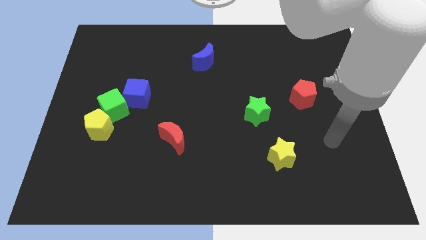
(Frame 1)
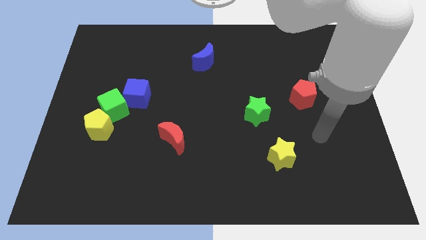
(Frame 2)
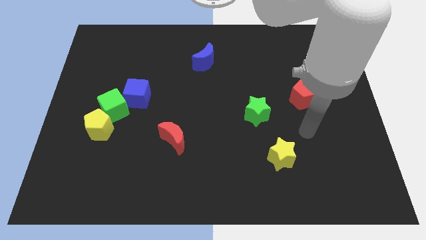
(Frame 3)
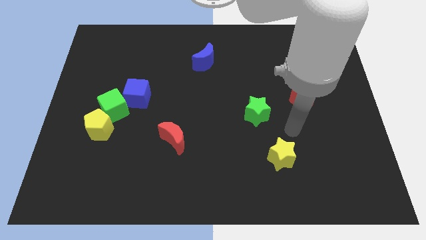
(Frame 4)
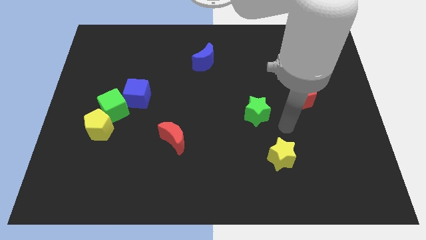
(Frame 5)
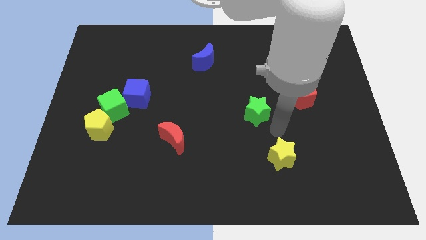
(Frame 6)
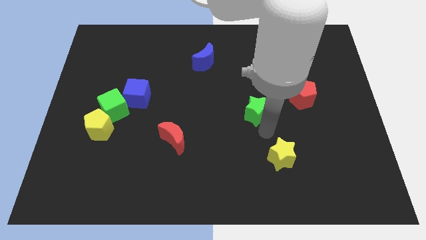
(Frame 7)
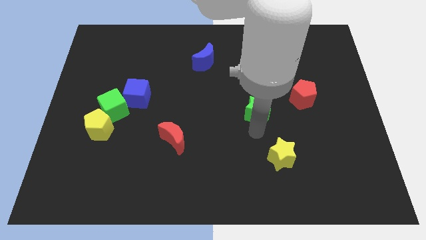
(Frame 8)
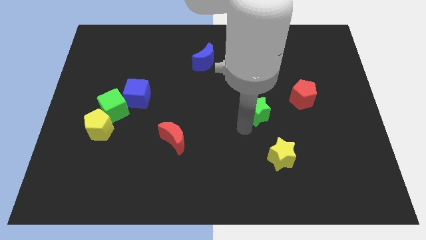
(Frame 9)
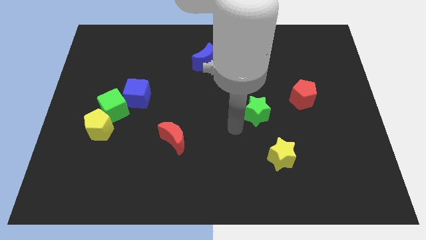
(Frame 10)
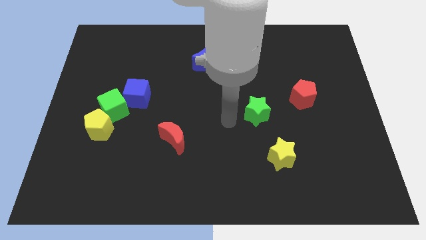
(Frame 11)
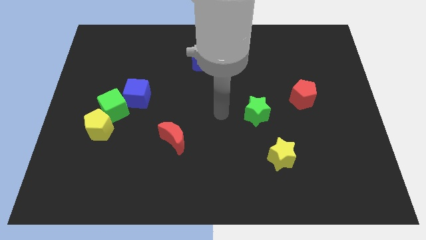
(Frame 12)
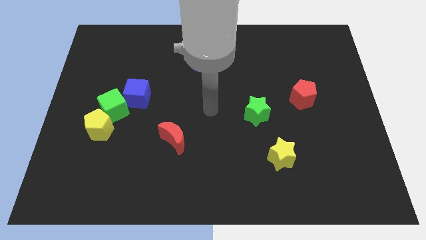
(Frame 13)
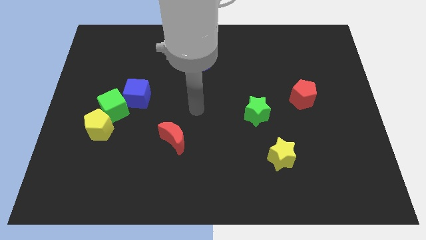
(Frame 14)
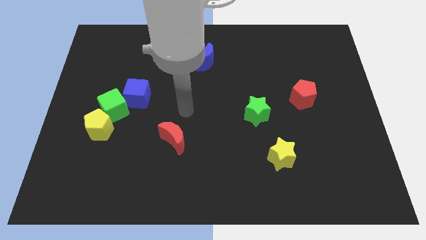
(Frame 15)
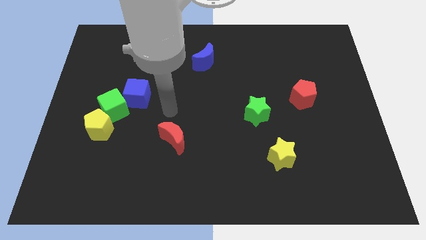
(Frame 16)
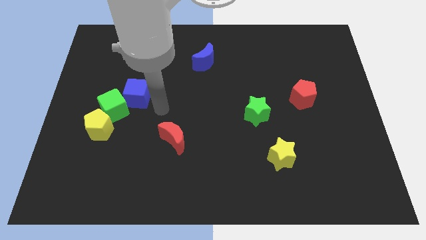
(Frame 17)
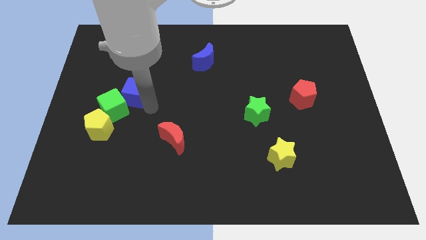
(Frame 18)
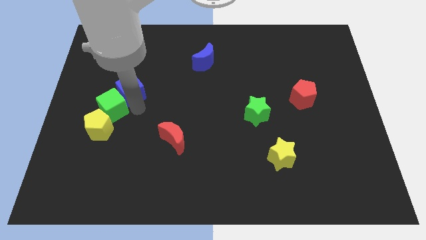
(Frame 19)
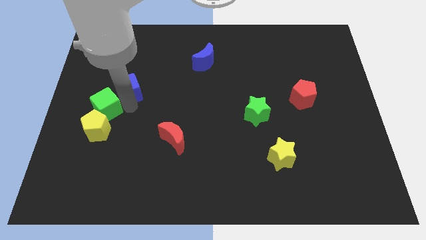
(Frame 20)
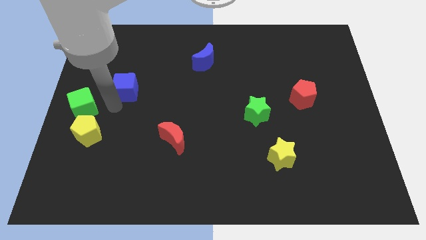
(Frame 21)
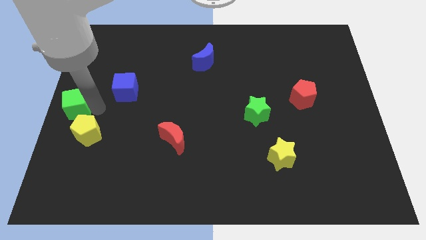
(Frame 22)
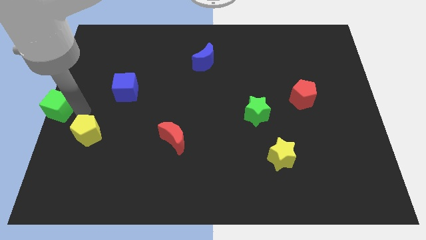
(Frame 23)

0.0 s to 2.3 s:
separate the yellow pentagon from the green cube

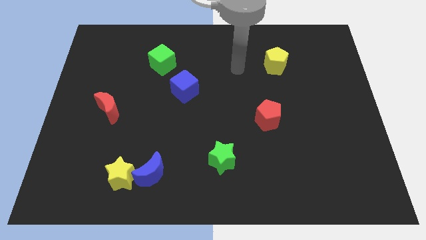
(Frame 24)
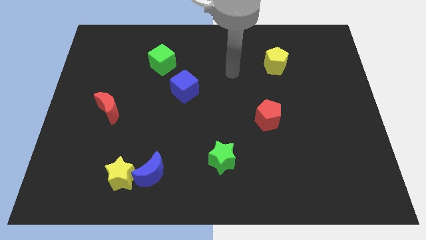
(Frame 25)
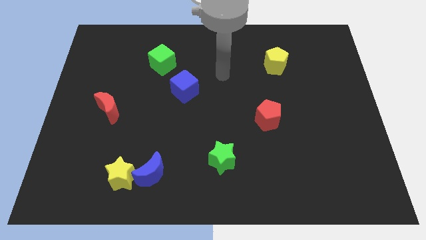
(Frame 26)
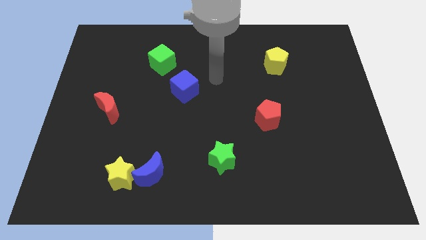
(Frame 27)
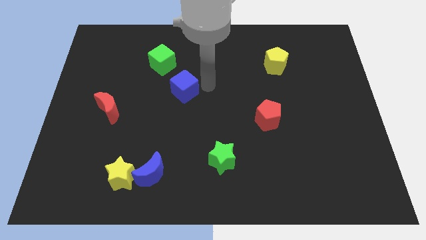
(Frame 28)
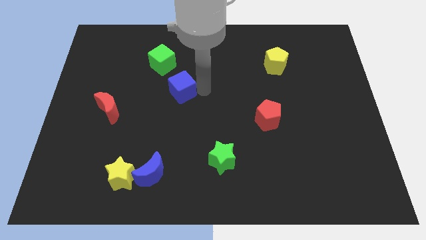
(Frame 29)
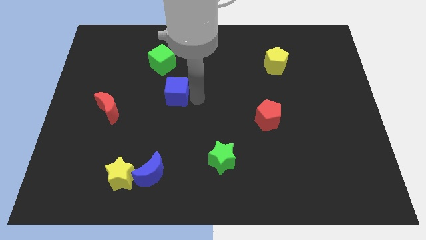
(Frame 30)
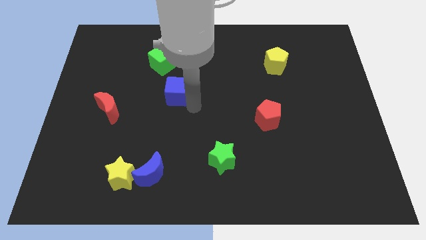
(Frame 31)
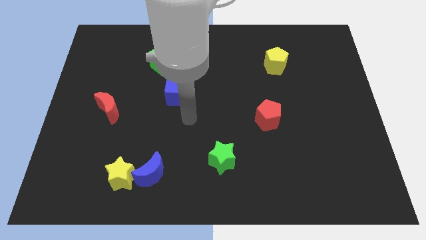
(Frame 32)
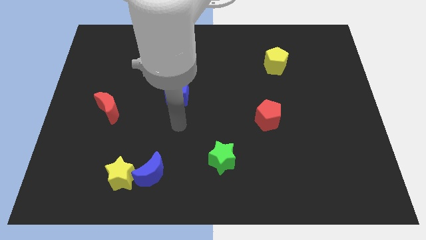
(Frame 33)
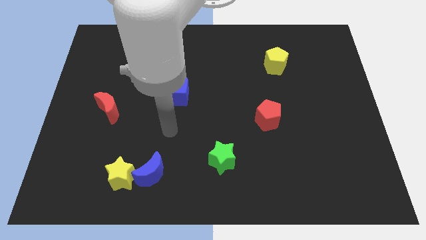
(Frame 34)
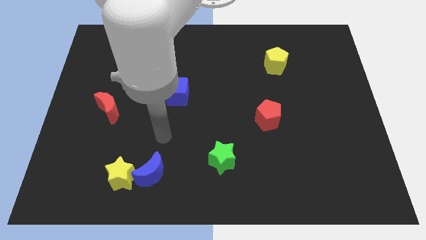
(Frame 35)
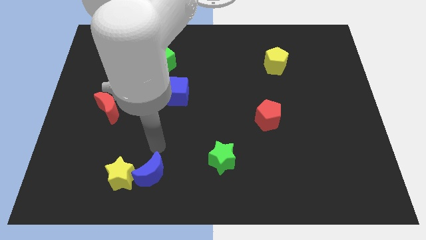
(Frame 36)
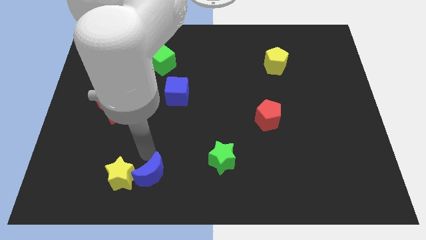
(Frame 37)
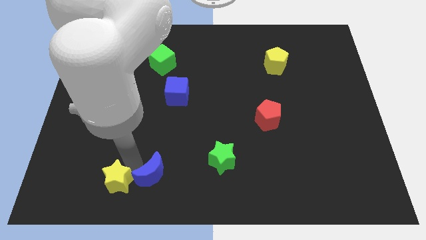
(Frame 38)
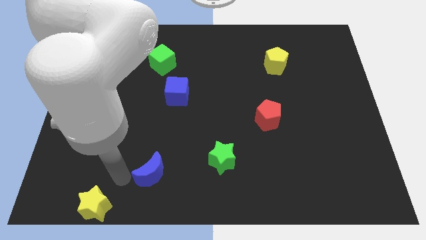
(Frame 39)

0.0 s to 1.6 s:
pull the blue moon apart from the yellow star

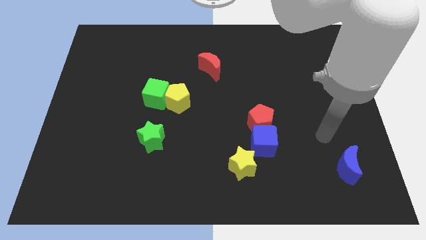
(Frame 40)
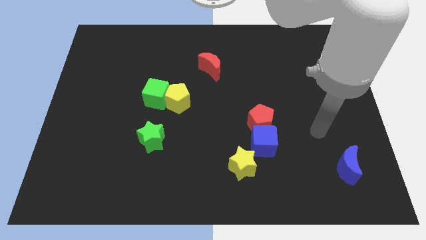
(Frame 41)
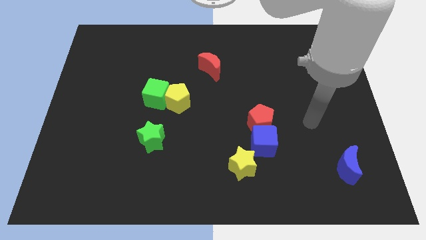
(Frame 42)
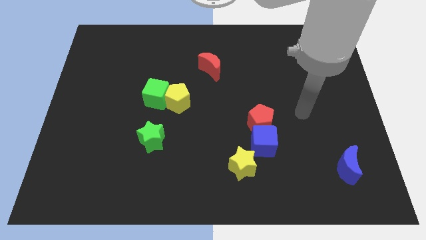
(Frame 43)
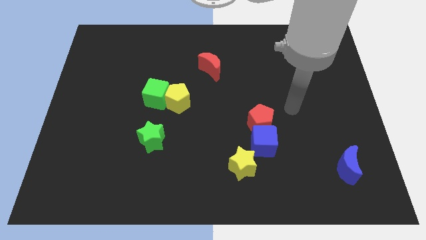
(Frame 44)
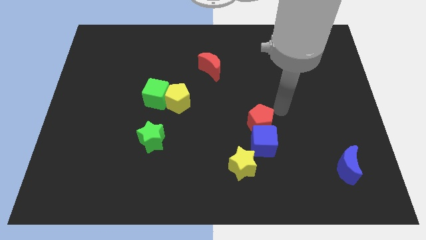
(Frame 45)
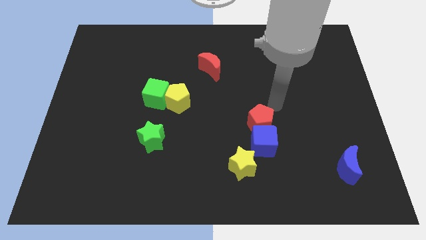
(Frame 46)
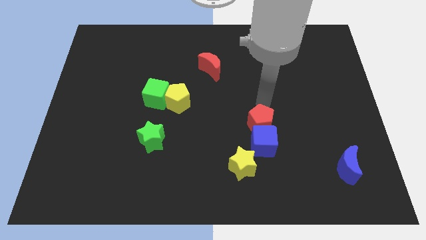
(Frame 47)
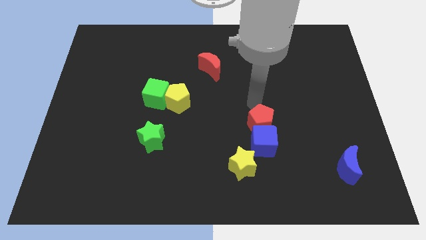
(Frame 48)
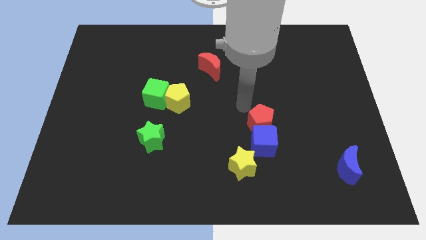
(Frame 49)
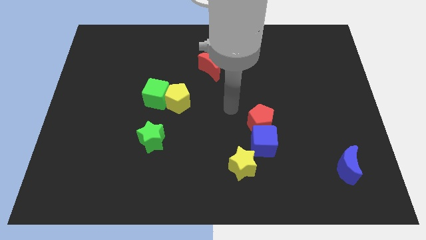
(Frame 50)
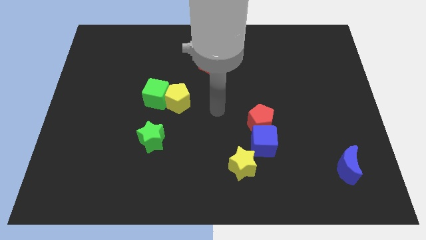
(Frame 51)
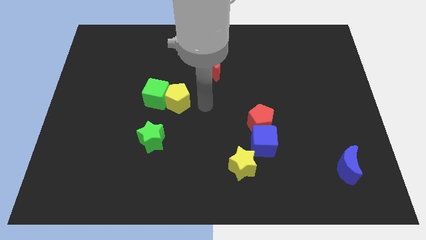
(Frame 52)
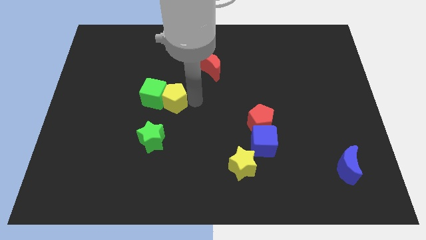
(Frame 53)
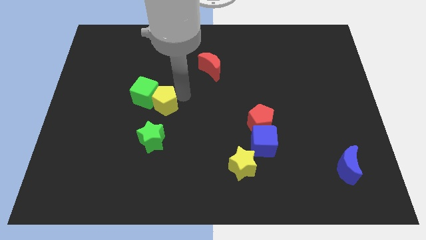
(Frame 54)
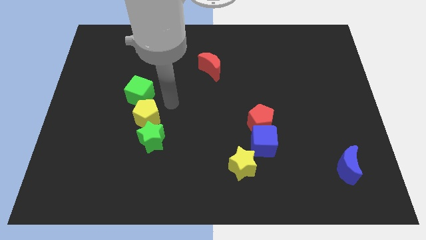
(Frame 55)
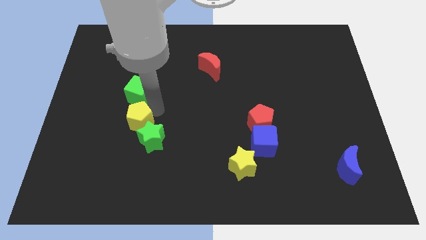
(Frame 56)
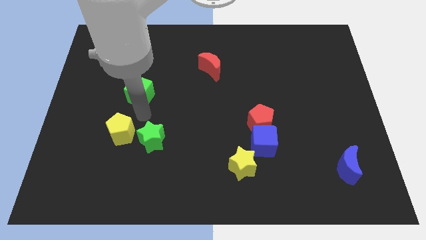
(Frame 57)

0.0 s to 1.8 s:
pull the green cube apart from the yellow pentagon

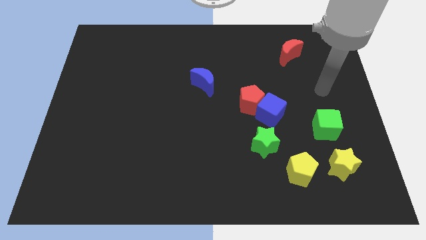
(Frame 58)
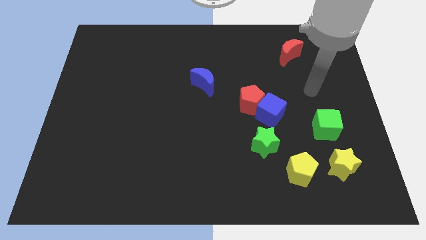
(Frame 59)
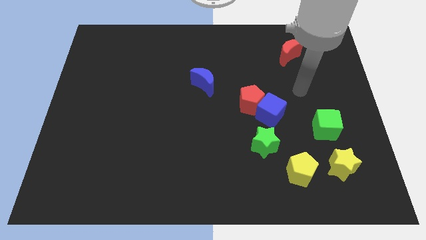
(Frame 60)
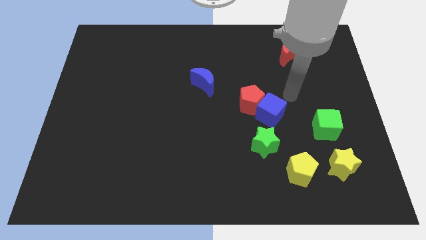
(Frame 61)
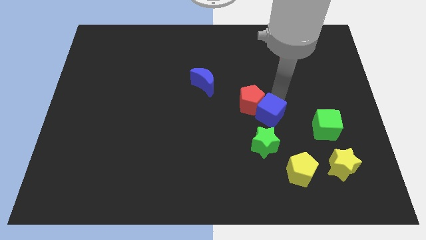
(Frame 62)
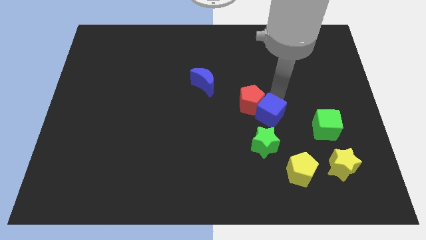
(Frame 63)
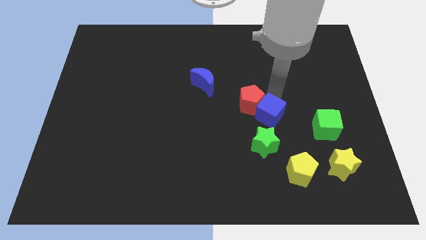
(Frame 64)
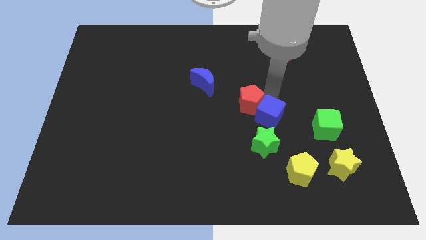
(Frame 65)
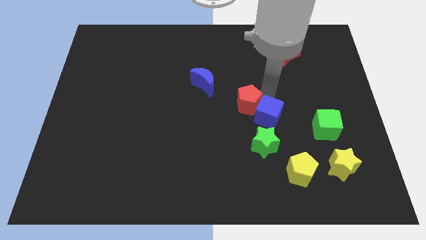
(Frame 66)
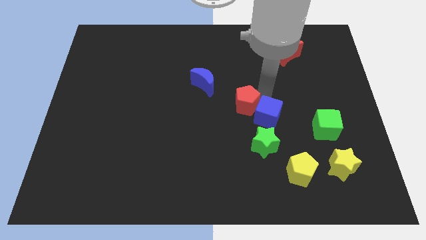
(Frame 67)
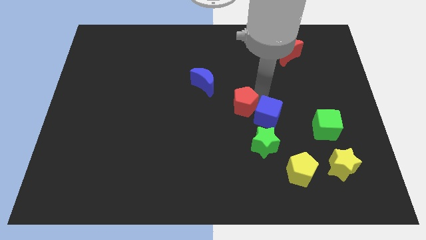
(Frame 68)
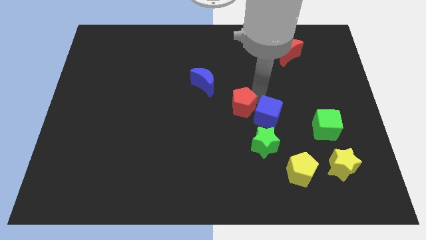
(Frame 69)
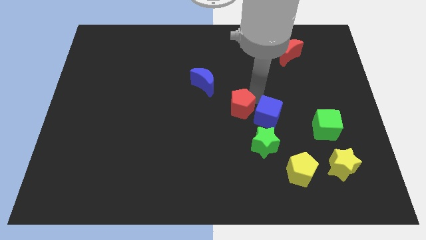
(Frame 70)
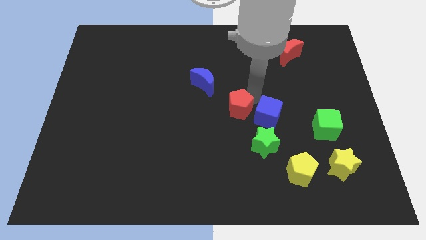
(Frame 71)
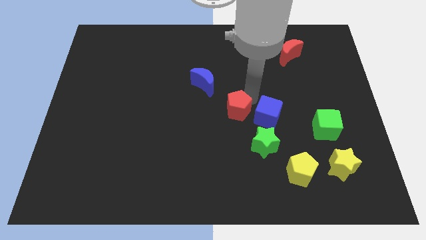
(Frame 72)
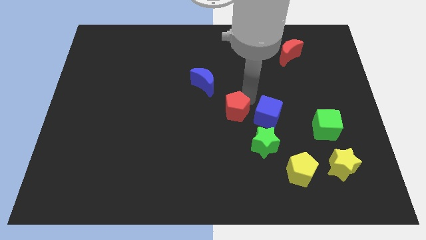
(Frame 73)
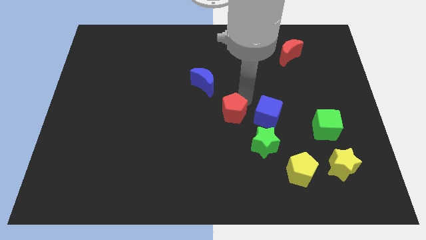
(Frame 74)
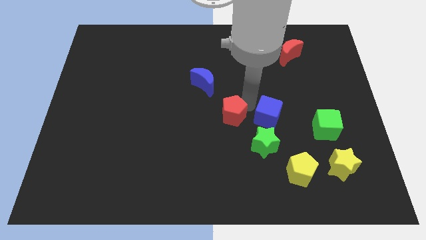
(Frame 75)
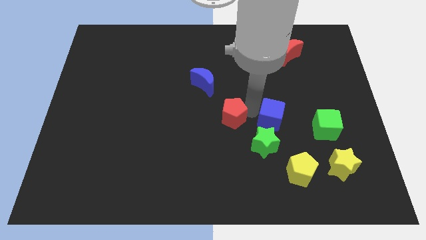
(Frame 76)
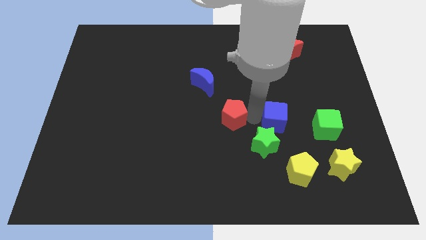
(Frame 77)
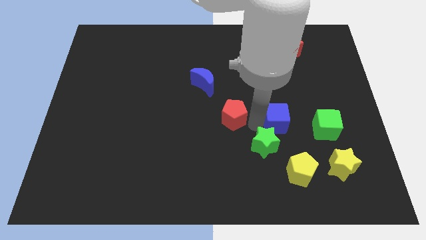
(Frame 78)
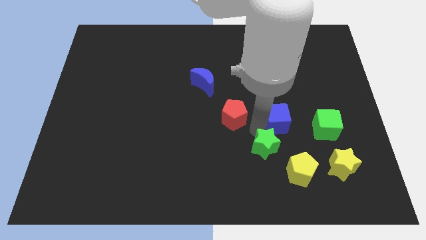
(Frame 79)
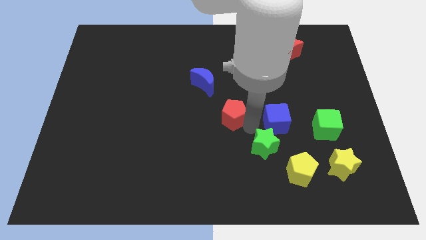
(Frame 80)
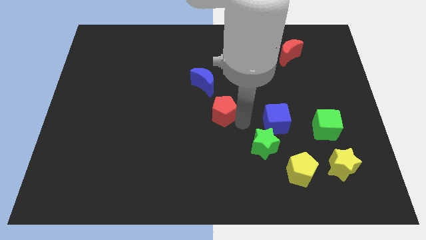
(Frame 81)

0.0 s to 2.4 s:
pull the red pentagon apart from the blue cube

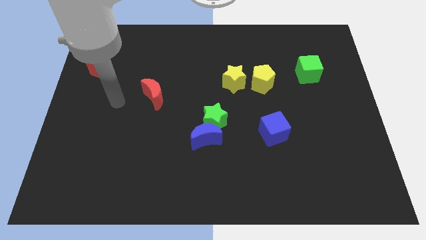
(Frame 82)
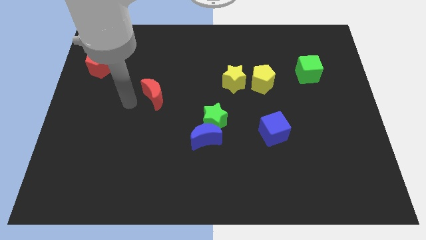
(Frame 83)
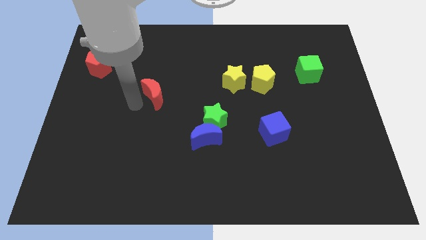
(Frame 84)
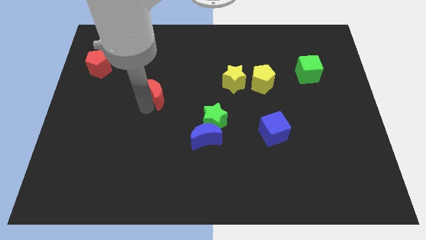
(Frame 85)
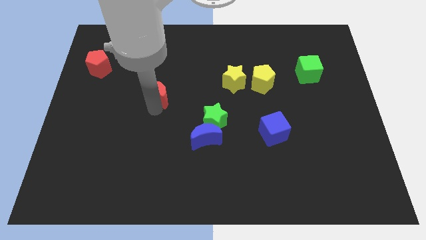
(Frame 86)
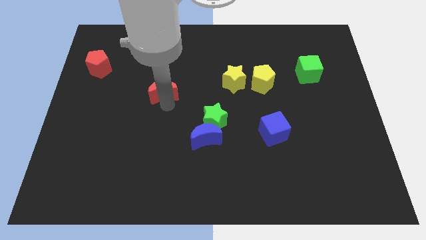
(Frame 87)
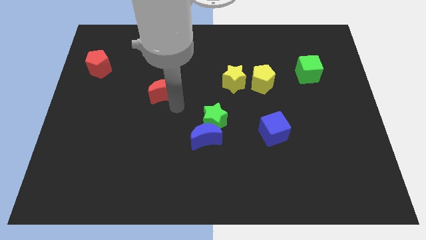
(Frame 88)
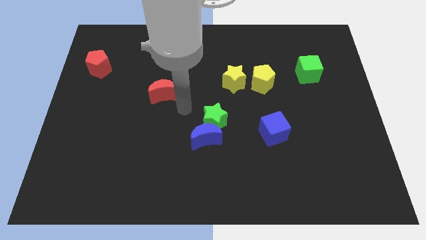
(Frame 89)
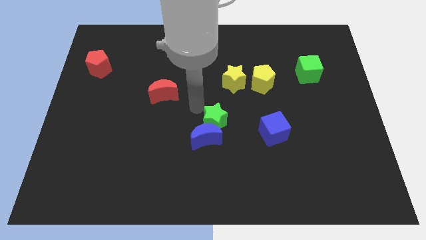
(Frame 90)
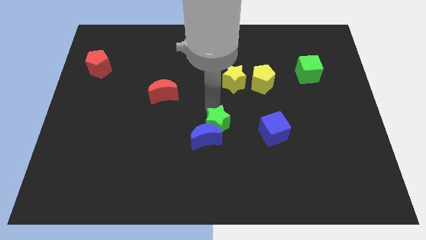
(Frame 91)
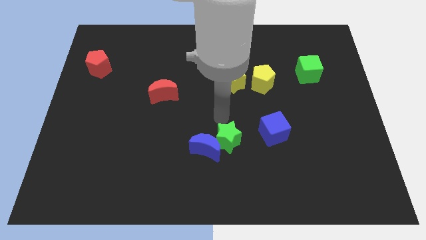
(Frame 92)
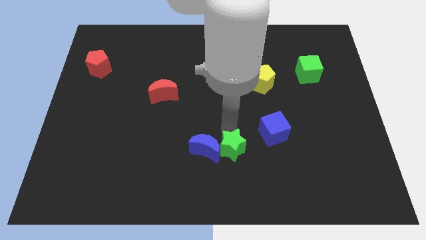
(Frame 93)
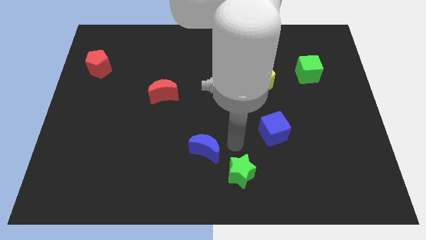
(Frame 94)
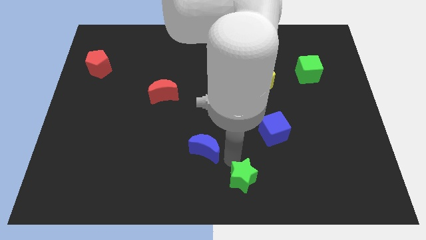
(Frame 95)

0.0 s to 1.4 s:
separate the blue moon from the green star
